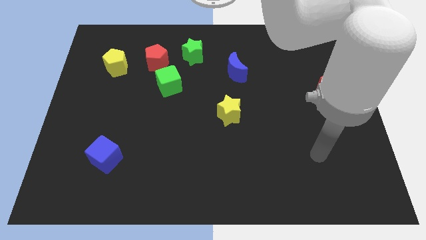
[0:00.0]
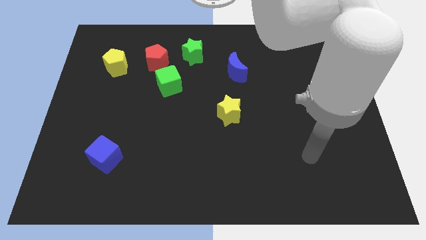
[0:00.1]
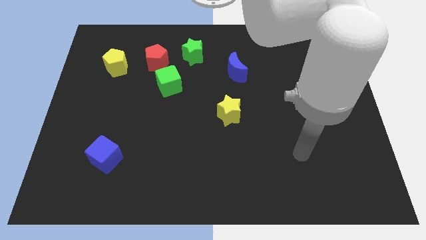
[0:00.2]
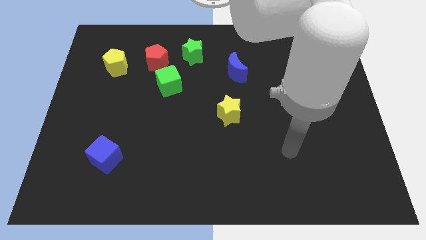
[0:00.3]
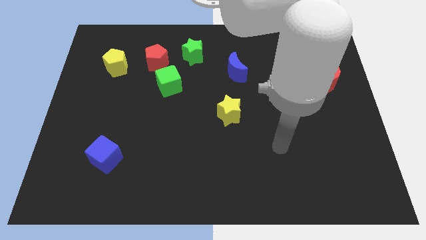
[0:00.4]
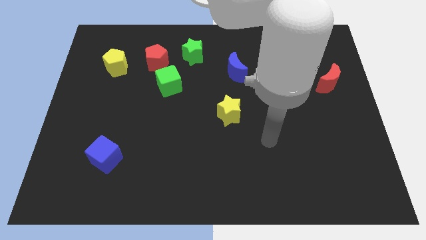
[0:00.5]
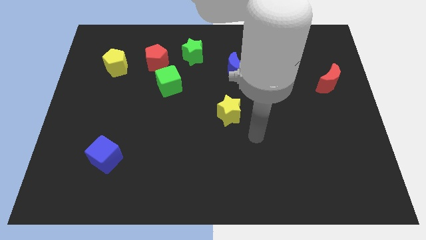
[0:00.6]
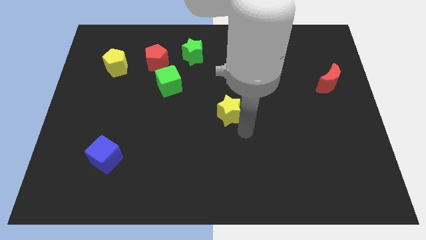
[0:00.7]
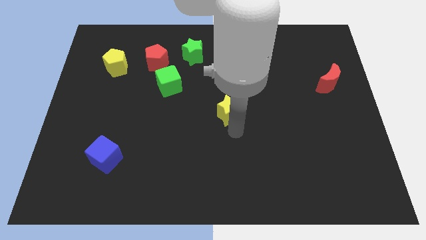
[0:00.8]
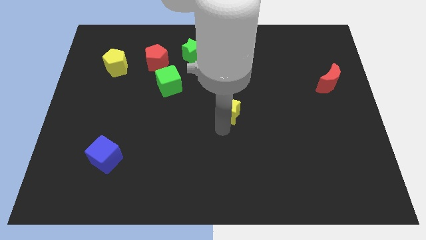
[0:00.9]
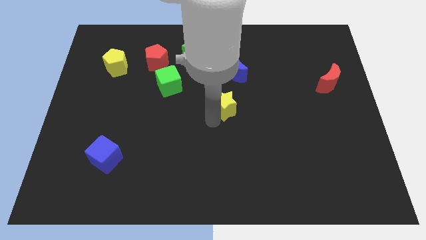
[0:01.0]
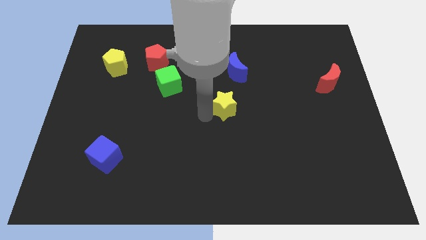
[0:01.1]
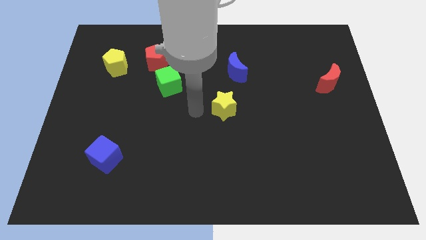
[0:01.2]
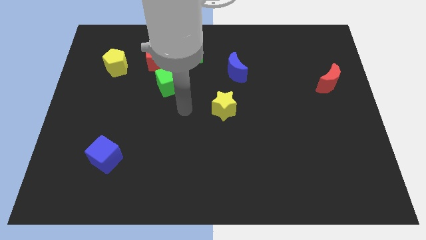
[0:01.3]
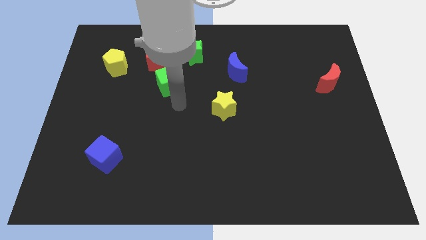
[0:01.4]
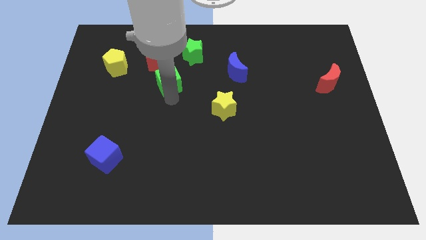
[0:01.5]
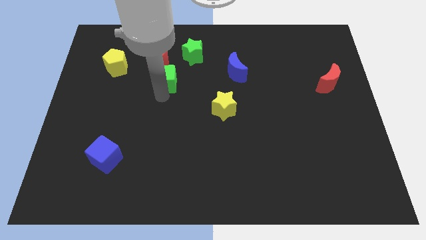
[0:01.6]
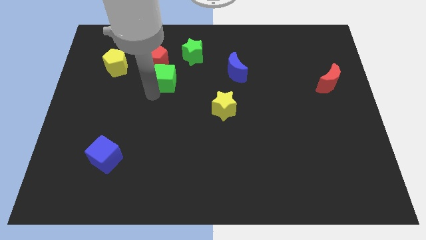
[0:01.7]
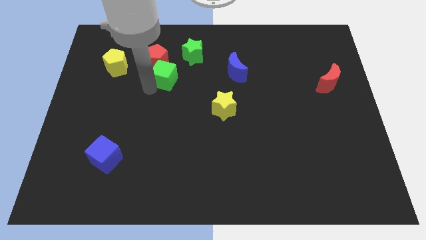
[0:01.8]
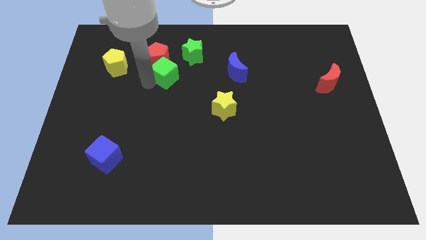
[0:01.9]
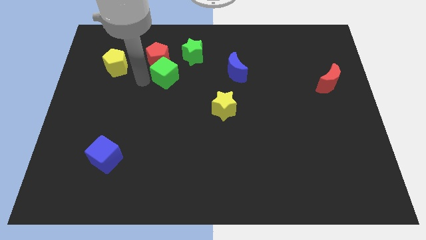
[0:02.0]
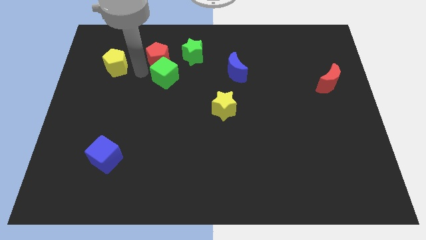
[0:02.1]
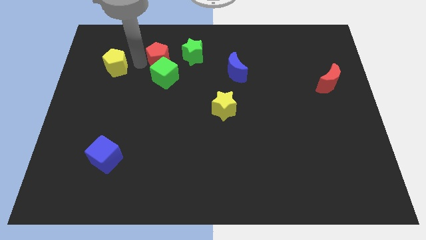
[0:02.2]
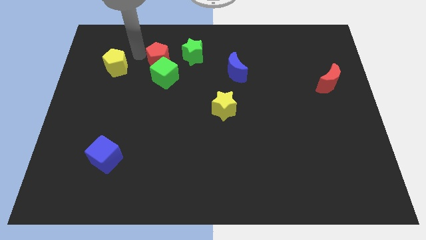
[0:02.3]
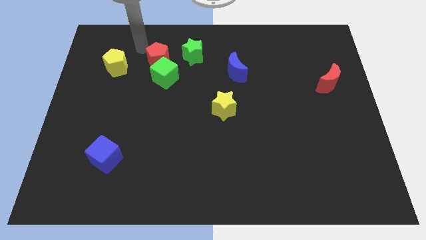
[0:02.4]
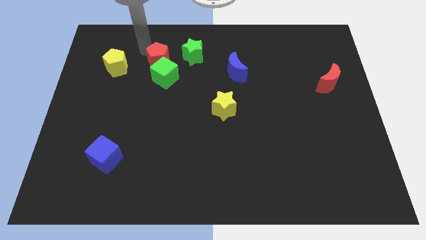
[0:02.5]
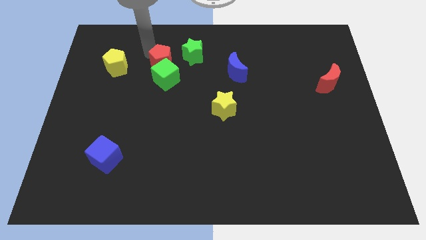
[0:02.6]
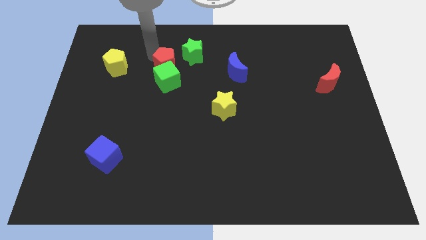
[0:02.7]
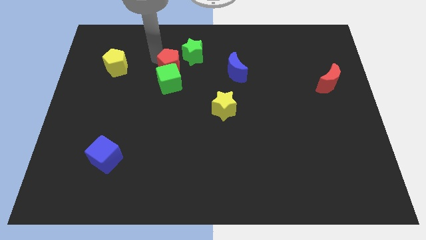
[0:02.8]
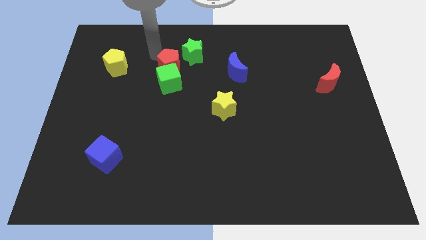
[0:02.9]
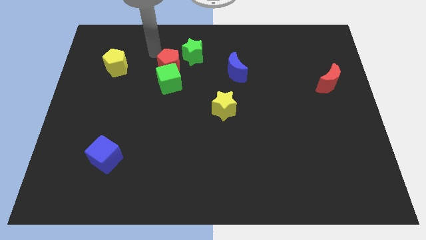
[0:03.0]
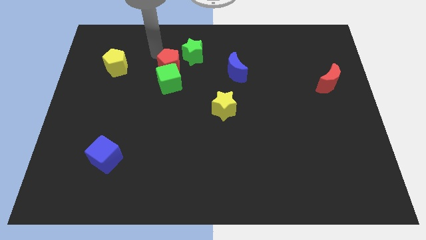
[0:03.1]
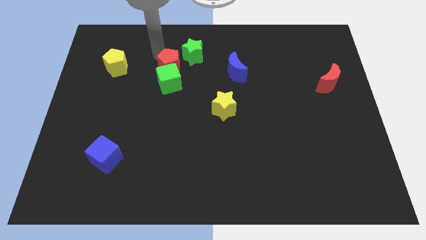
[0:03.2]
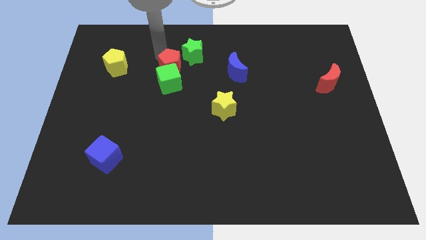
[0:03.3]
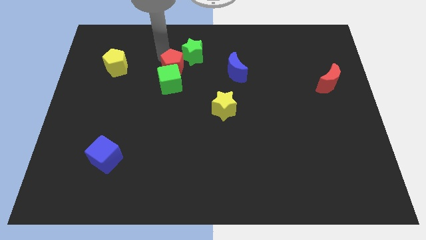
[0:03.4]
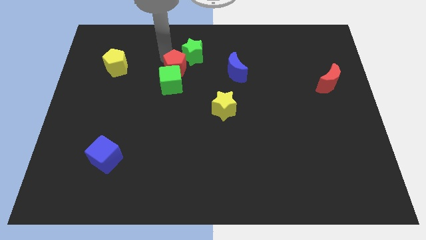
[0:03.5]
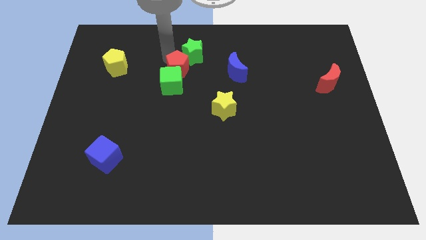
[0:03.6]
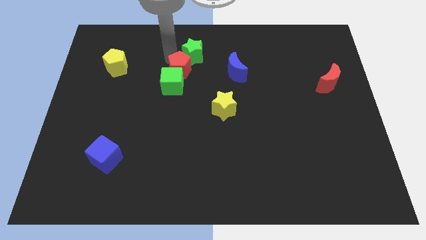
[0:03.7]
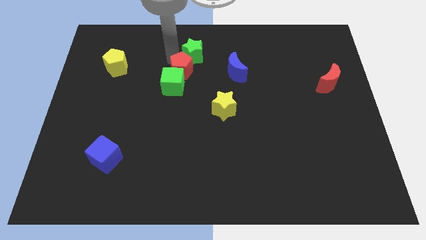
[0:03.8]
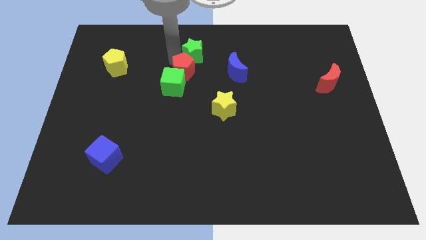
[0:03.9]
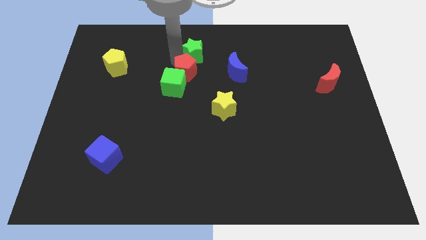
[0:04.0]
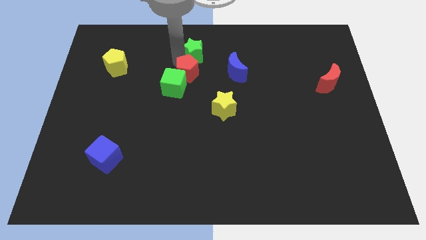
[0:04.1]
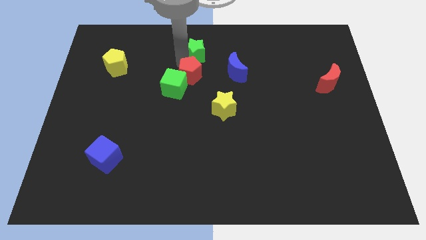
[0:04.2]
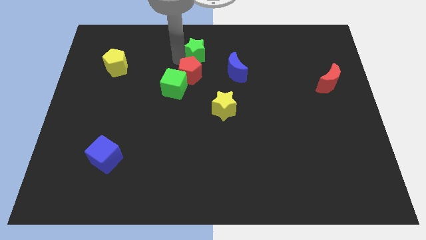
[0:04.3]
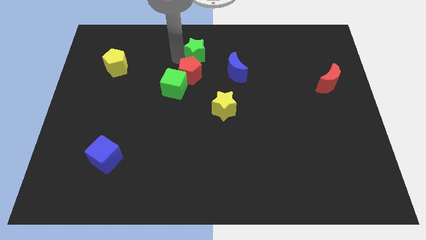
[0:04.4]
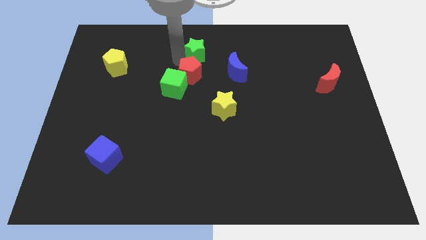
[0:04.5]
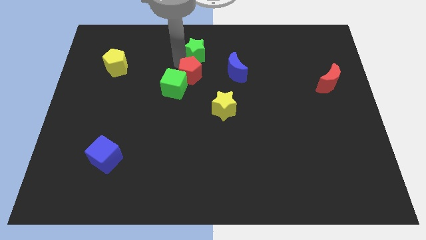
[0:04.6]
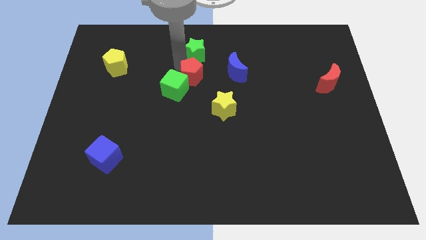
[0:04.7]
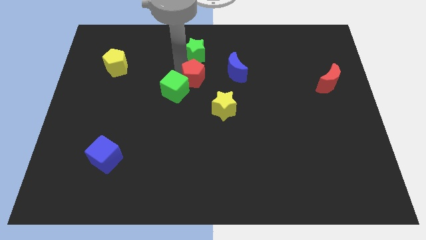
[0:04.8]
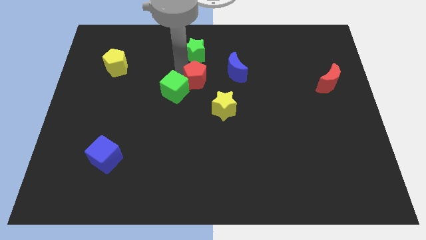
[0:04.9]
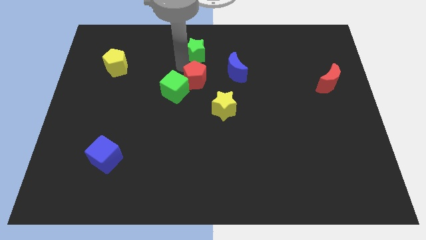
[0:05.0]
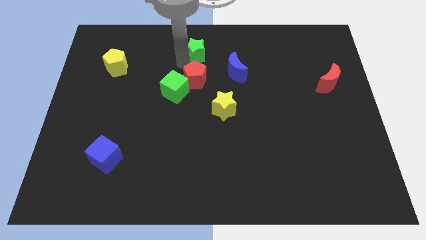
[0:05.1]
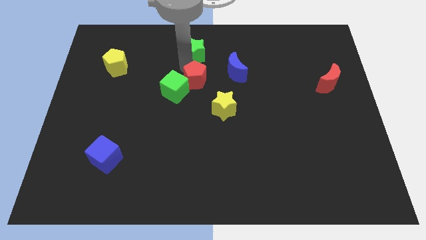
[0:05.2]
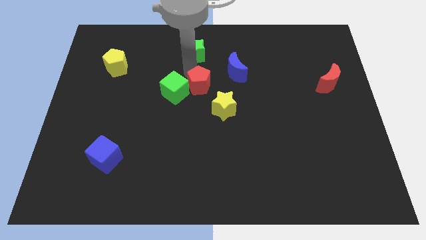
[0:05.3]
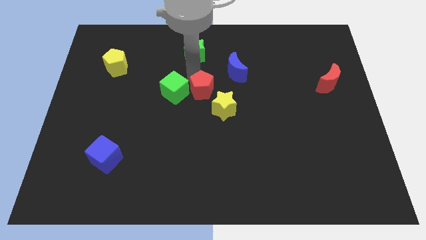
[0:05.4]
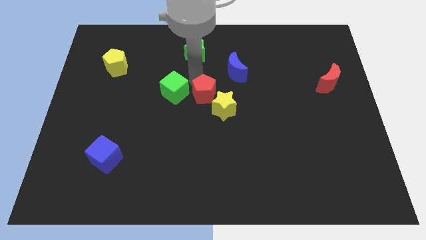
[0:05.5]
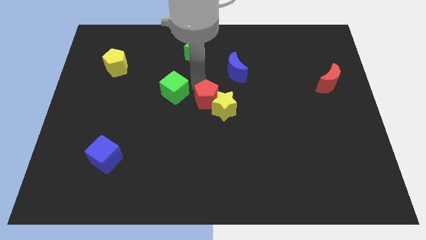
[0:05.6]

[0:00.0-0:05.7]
put the red pentagon next to the yellow star

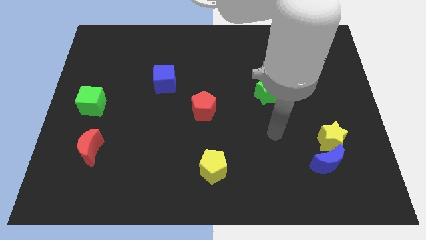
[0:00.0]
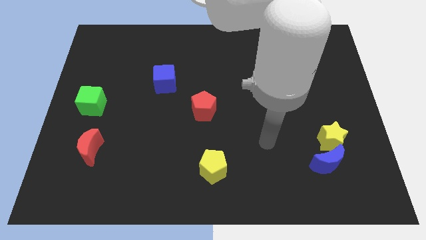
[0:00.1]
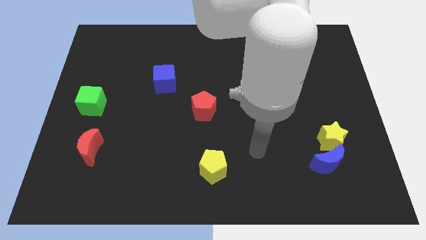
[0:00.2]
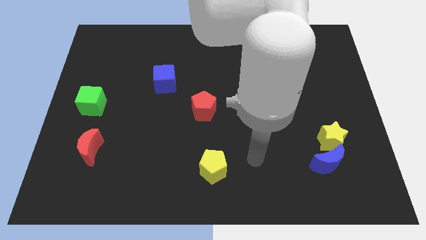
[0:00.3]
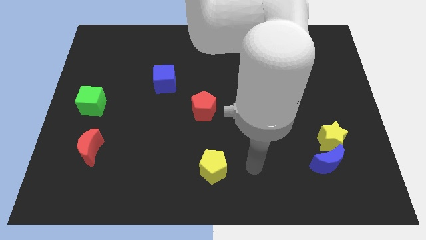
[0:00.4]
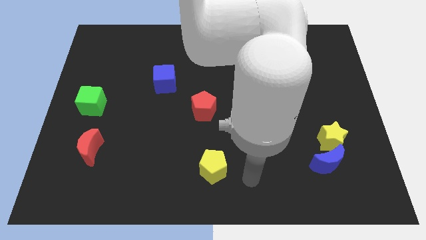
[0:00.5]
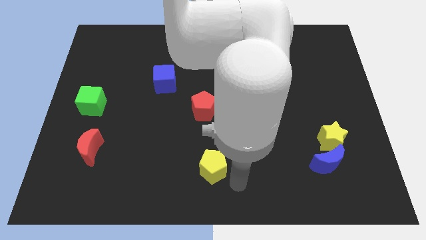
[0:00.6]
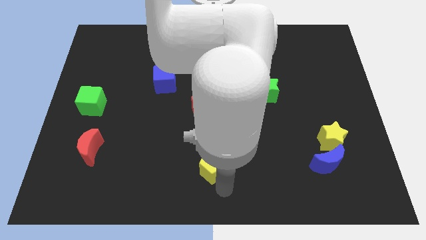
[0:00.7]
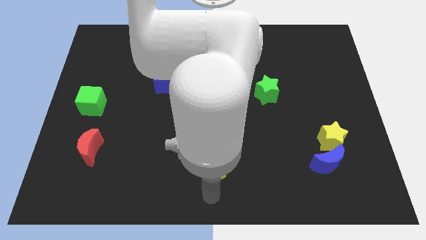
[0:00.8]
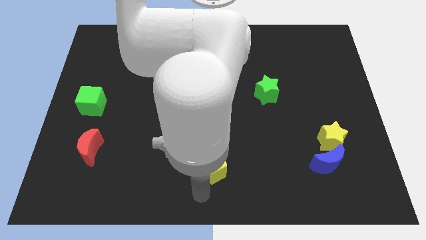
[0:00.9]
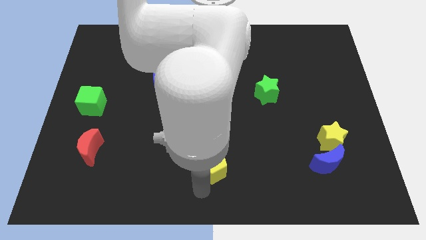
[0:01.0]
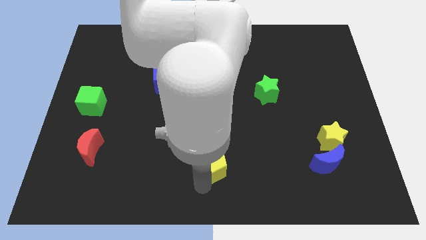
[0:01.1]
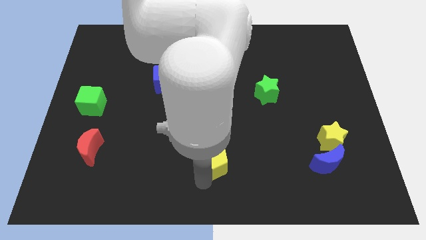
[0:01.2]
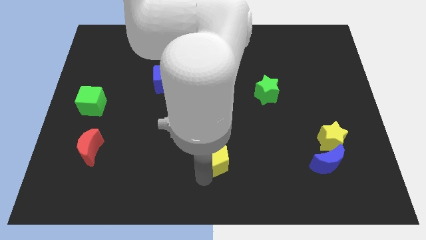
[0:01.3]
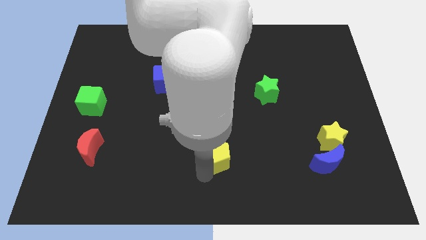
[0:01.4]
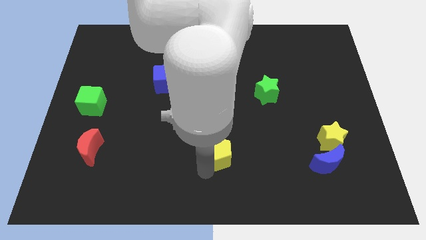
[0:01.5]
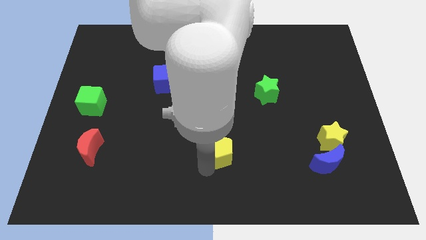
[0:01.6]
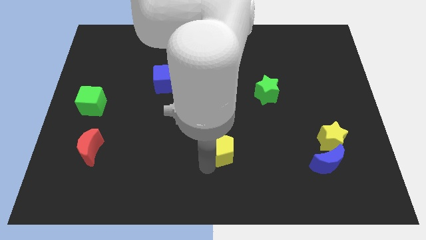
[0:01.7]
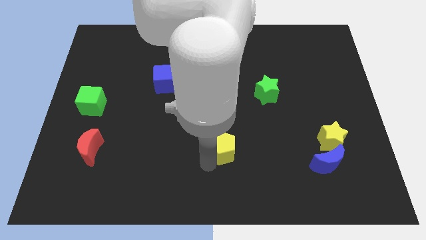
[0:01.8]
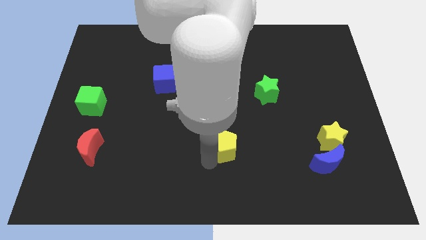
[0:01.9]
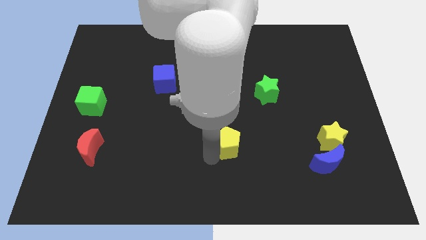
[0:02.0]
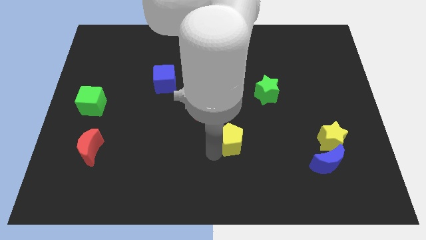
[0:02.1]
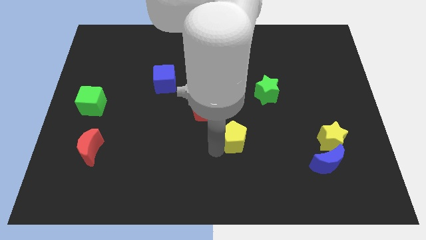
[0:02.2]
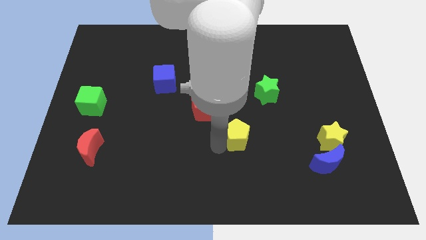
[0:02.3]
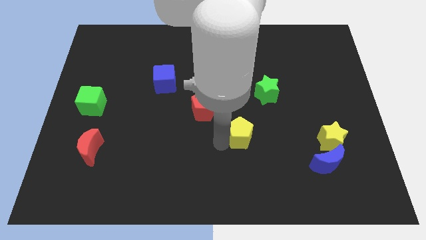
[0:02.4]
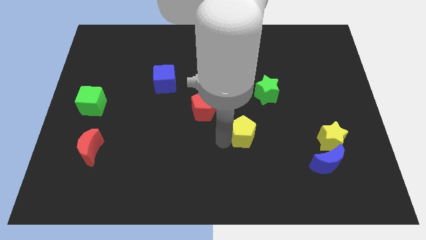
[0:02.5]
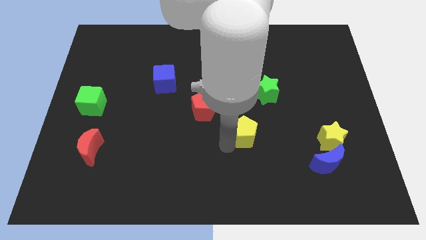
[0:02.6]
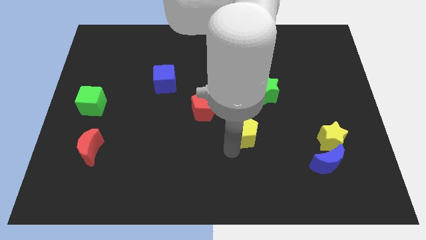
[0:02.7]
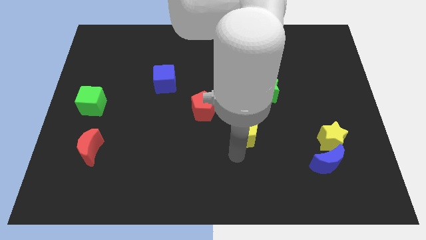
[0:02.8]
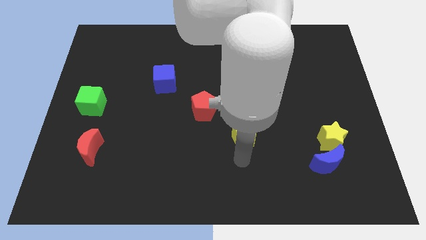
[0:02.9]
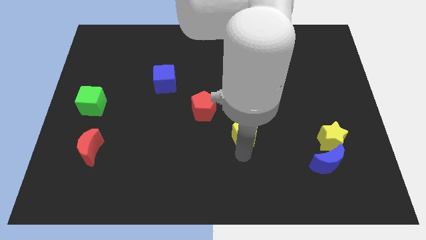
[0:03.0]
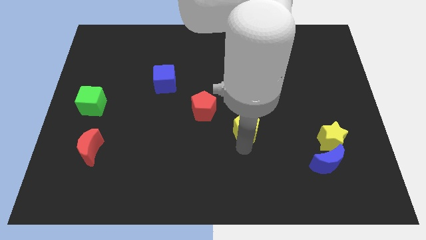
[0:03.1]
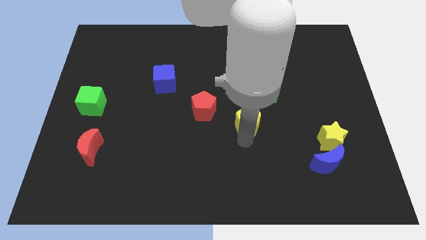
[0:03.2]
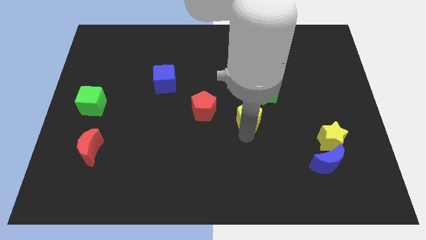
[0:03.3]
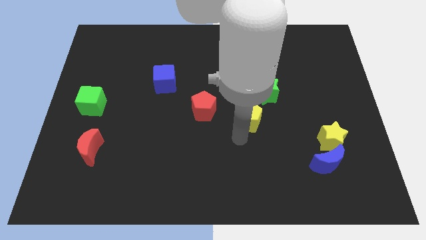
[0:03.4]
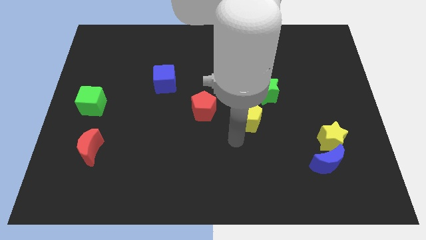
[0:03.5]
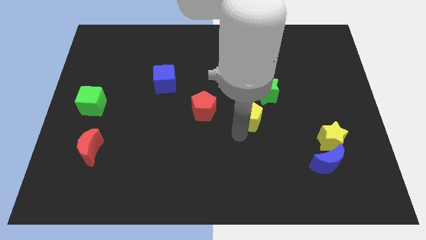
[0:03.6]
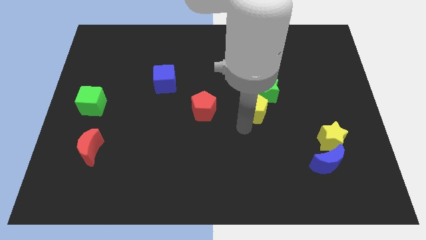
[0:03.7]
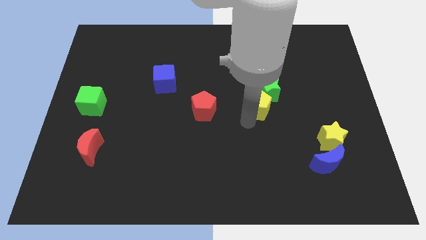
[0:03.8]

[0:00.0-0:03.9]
slide the yellow pentagon close to the green star
